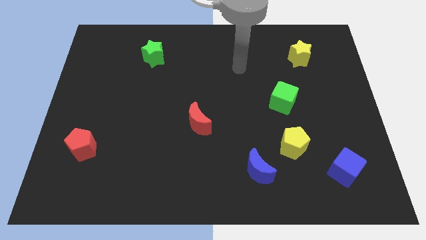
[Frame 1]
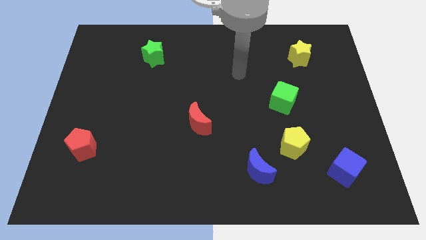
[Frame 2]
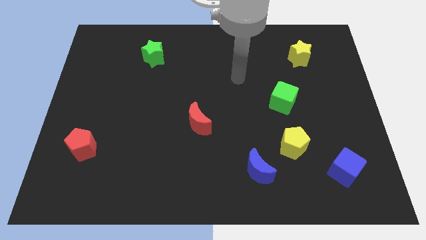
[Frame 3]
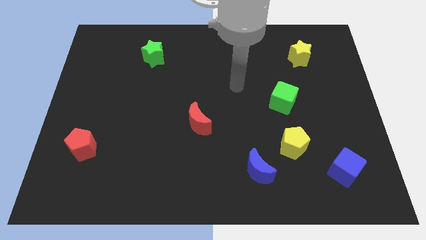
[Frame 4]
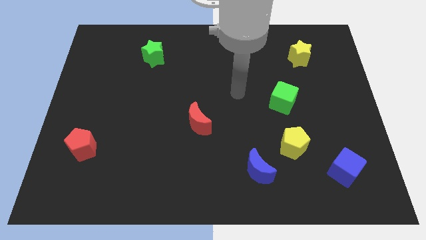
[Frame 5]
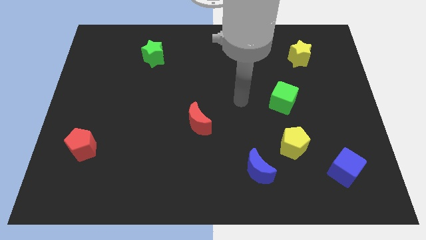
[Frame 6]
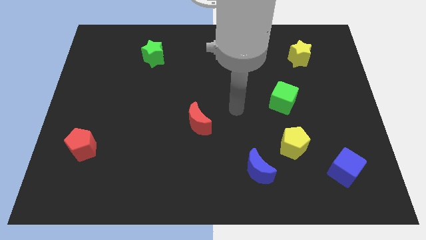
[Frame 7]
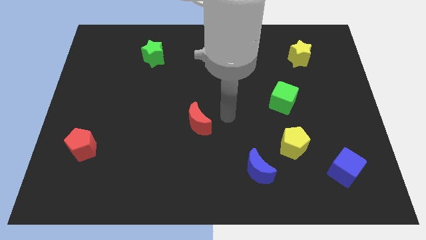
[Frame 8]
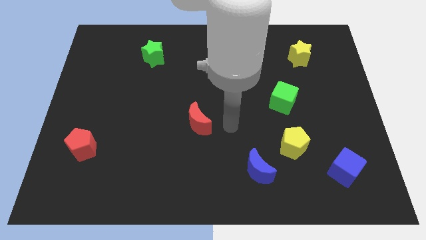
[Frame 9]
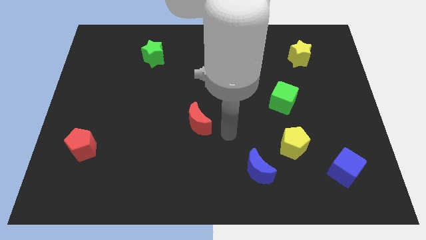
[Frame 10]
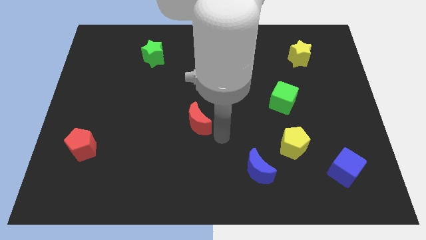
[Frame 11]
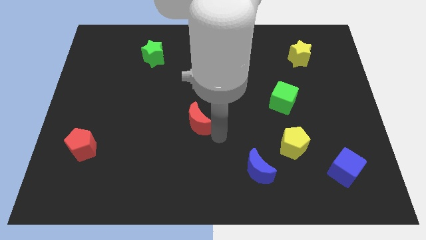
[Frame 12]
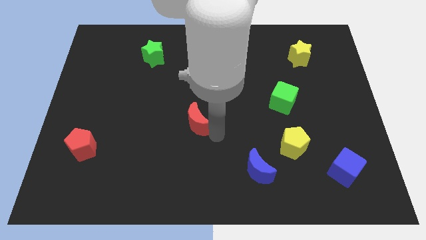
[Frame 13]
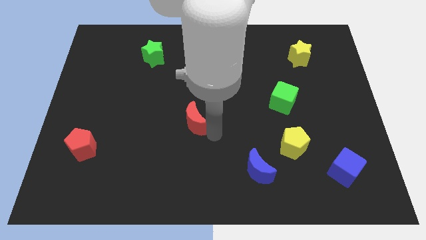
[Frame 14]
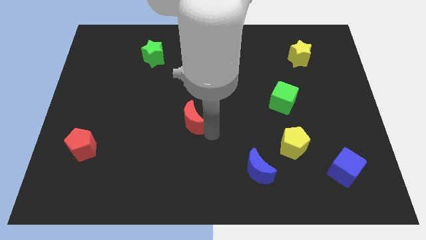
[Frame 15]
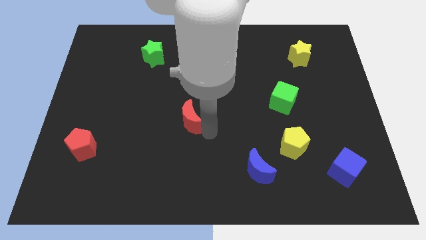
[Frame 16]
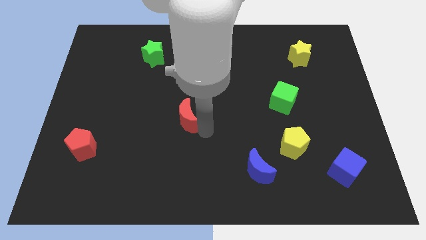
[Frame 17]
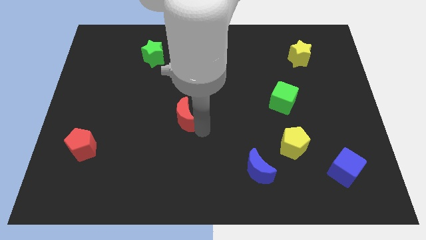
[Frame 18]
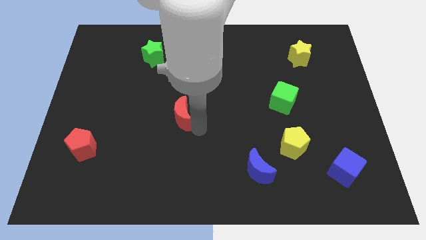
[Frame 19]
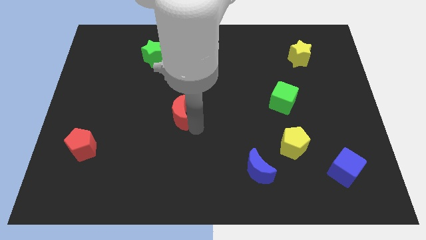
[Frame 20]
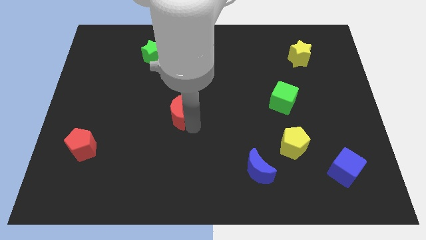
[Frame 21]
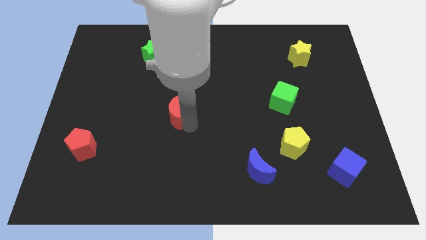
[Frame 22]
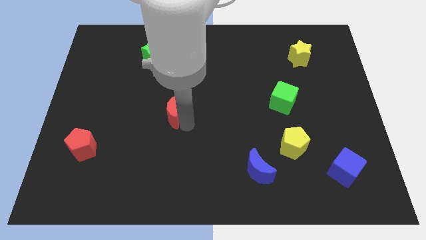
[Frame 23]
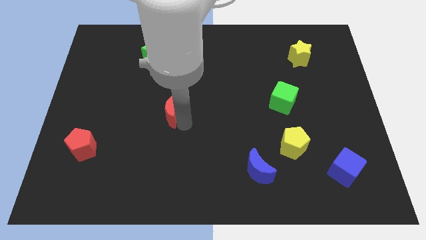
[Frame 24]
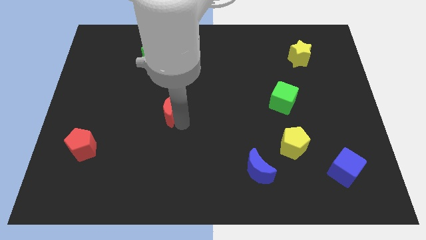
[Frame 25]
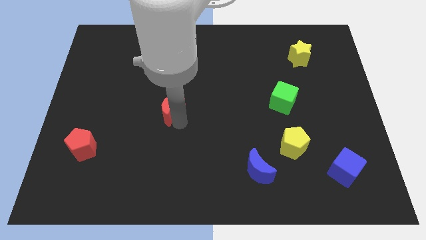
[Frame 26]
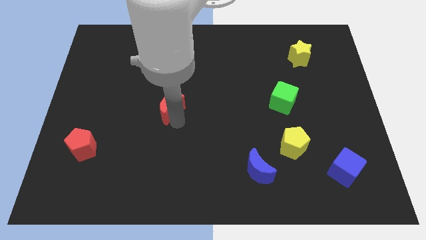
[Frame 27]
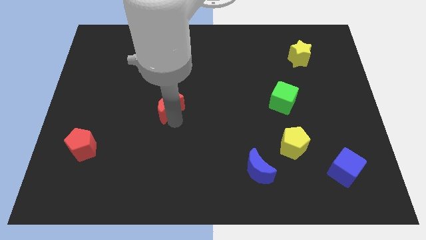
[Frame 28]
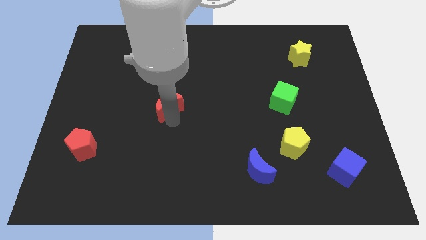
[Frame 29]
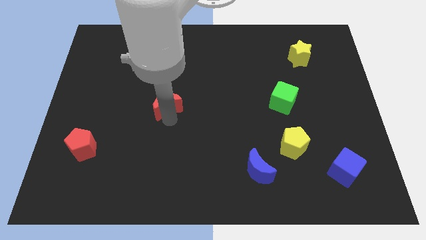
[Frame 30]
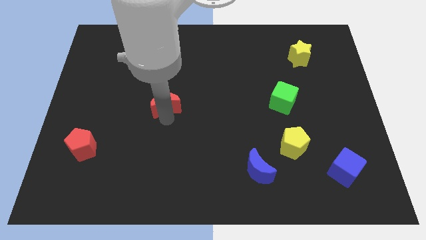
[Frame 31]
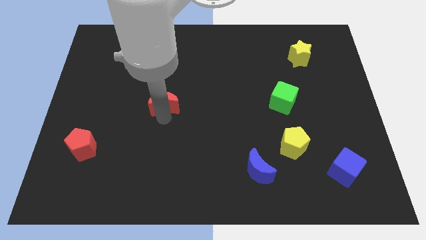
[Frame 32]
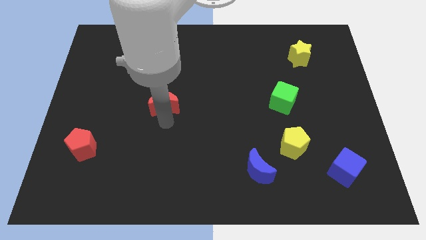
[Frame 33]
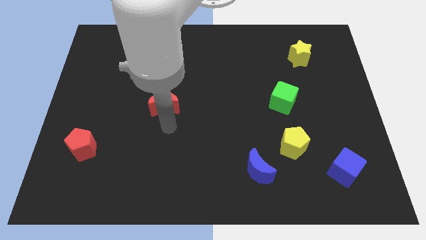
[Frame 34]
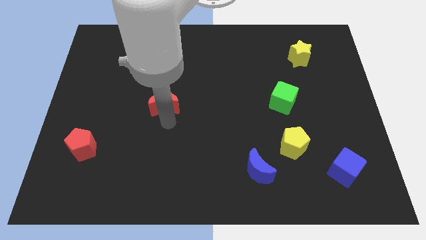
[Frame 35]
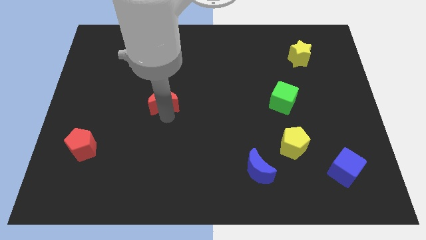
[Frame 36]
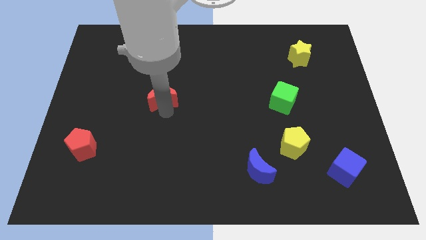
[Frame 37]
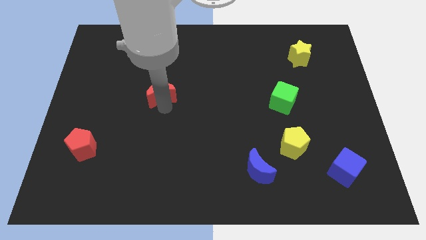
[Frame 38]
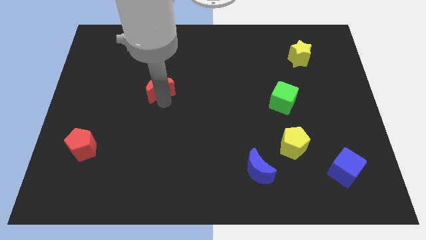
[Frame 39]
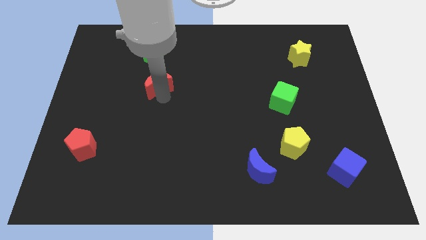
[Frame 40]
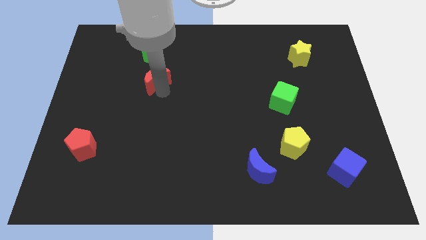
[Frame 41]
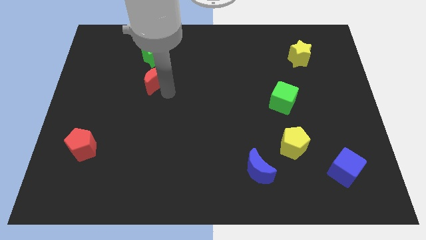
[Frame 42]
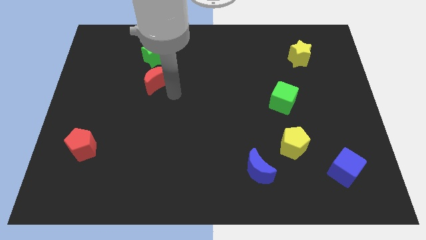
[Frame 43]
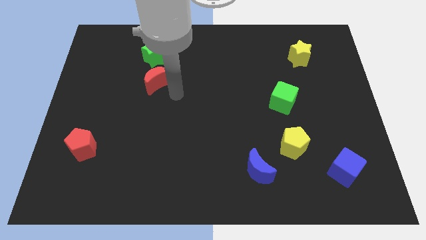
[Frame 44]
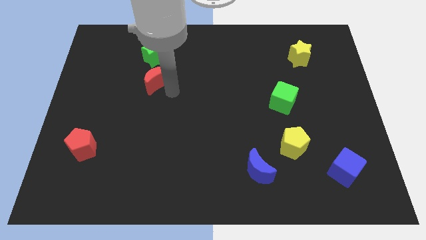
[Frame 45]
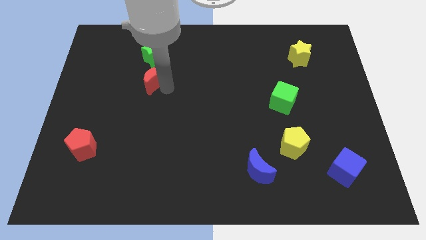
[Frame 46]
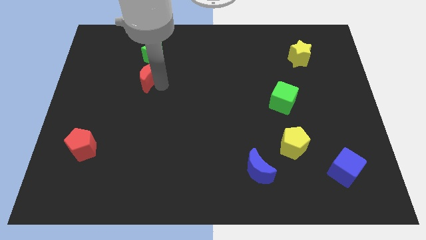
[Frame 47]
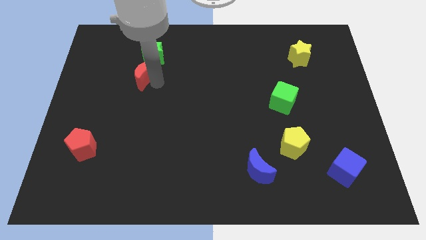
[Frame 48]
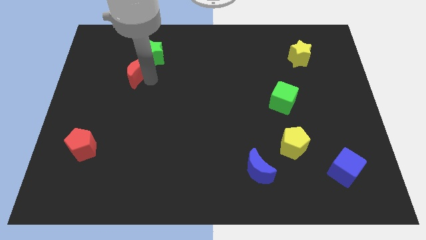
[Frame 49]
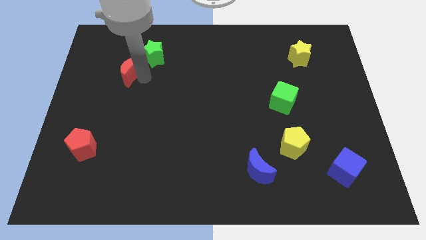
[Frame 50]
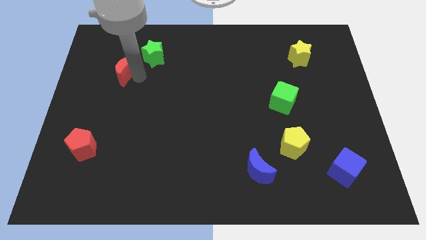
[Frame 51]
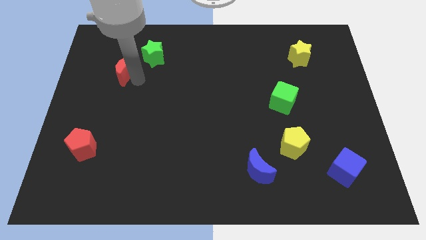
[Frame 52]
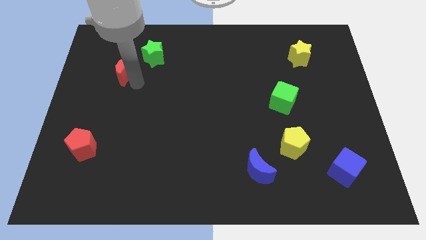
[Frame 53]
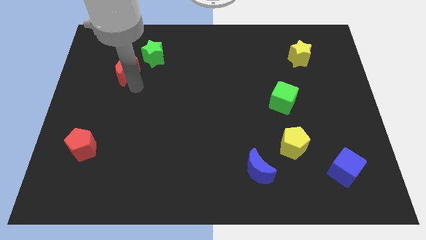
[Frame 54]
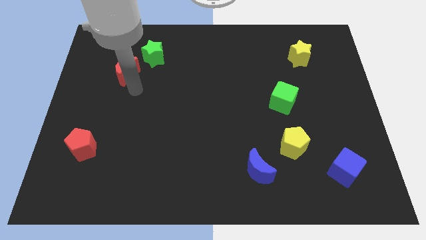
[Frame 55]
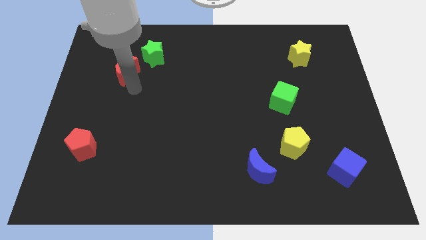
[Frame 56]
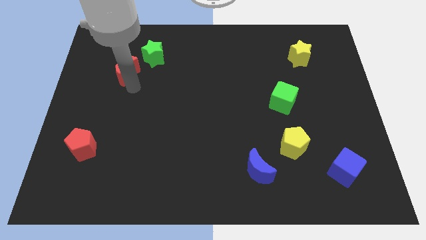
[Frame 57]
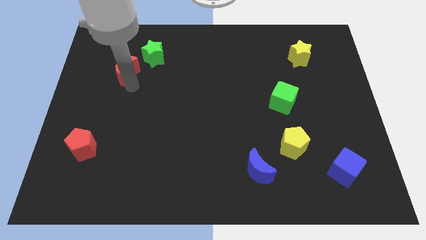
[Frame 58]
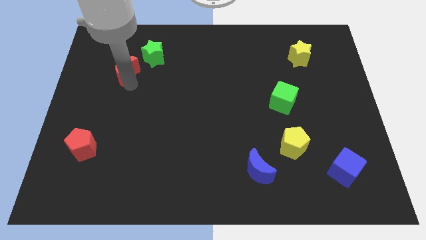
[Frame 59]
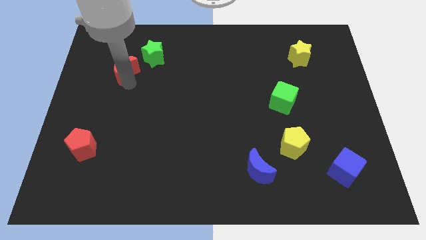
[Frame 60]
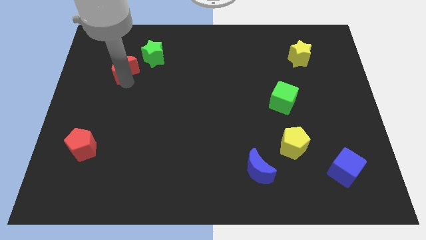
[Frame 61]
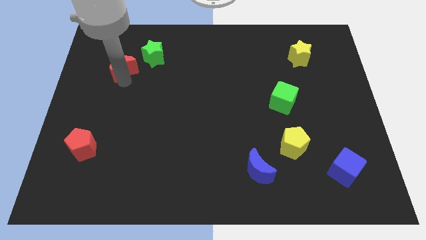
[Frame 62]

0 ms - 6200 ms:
put the red moon left of the green star

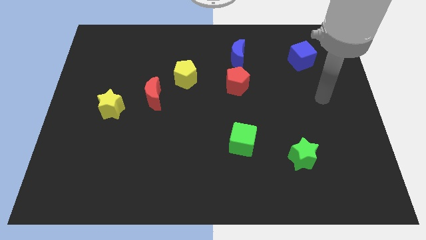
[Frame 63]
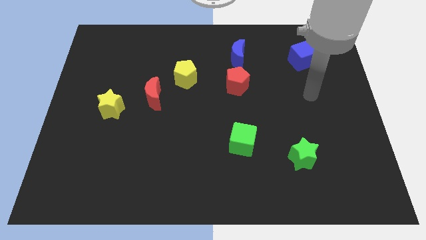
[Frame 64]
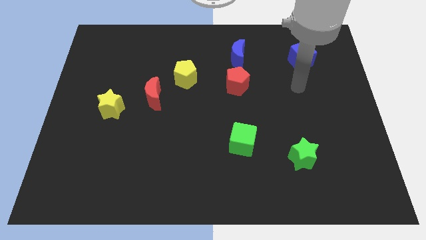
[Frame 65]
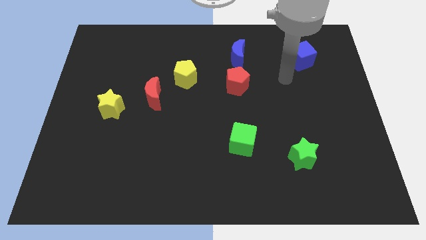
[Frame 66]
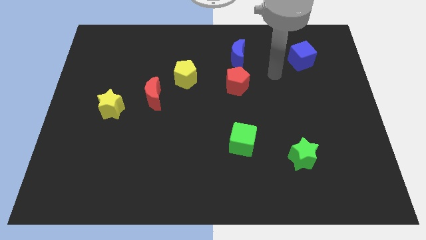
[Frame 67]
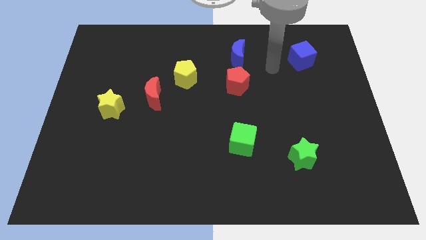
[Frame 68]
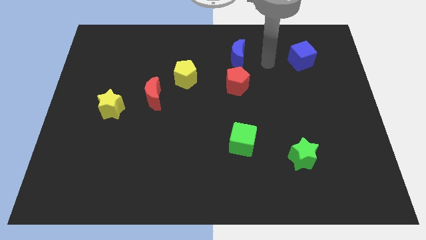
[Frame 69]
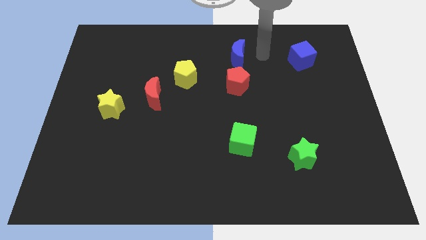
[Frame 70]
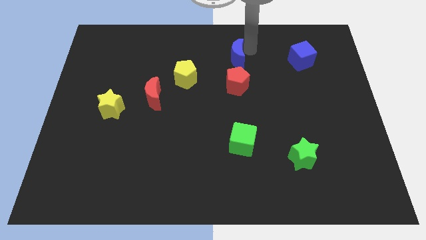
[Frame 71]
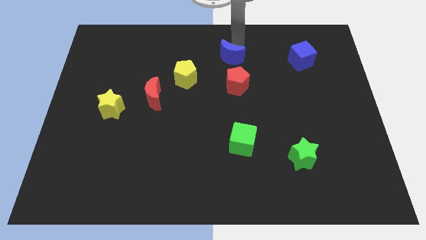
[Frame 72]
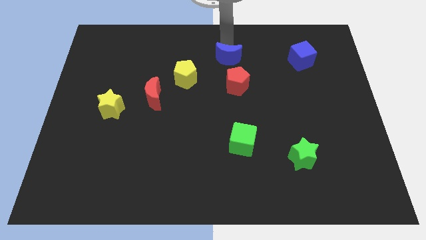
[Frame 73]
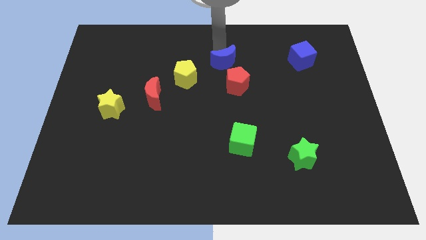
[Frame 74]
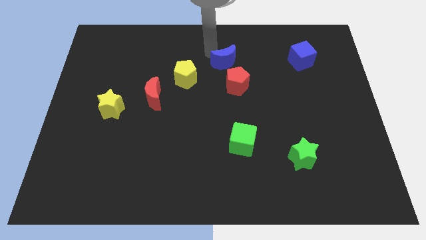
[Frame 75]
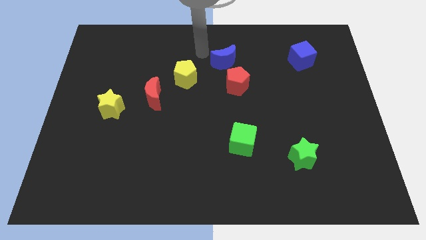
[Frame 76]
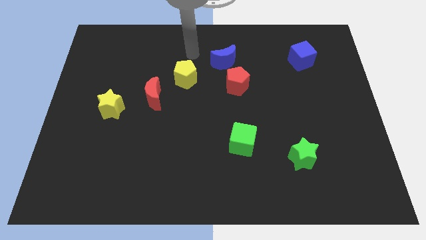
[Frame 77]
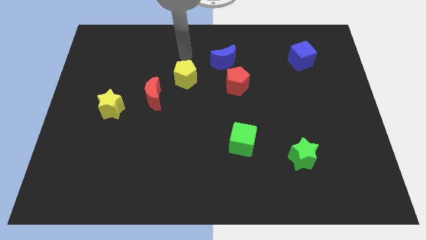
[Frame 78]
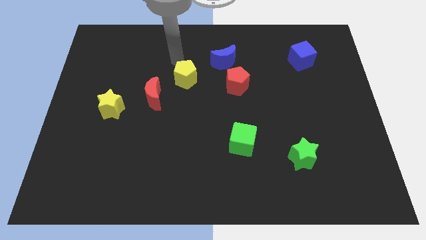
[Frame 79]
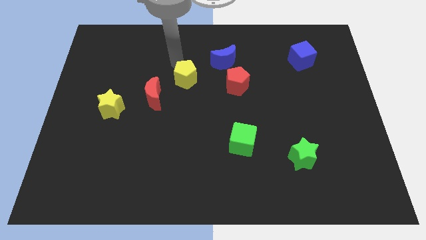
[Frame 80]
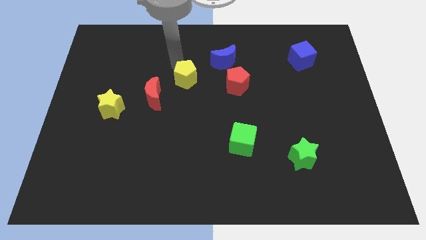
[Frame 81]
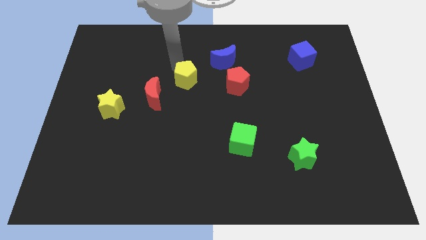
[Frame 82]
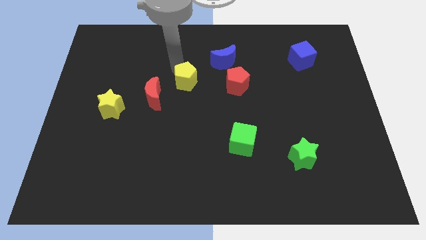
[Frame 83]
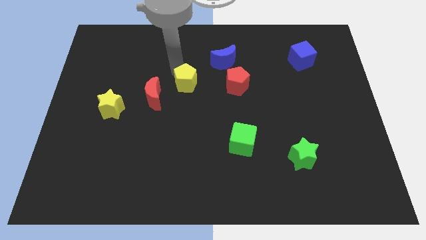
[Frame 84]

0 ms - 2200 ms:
move the yellow pentagon just right of the red moon

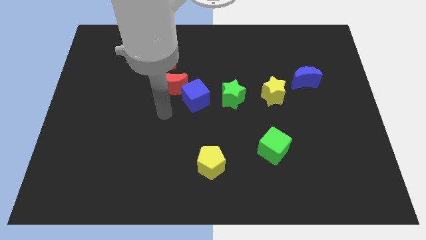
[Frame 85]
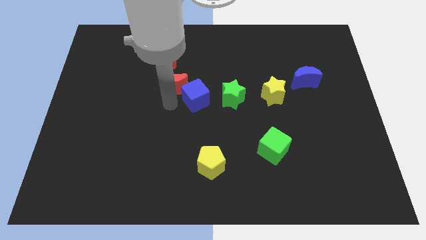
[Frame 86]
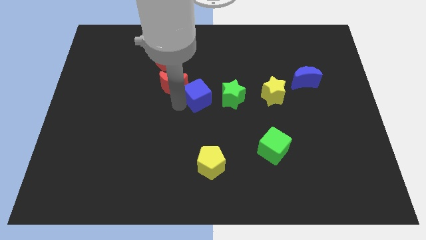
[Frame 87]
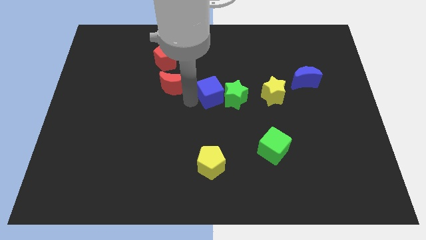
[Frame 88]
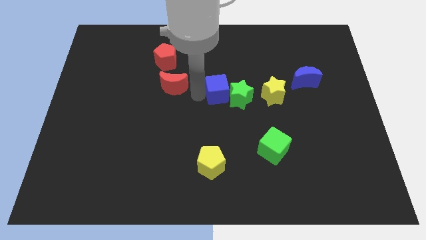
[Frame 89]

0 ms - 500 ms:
push the green star diagonally down and to the left of the yellow star
